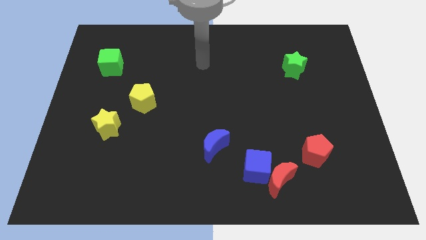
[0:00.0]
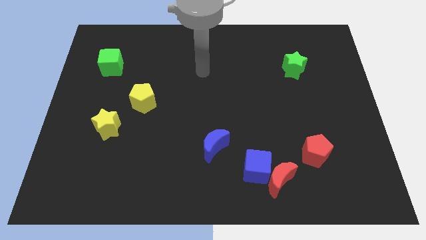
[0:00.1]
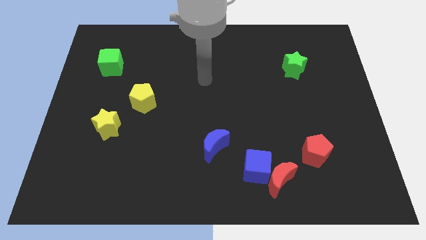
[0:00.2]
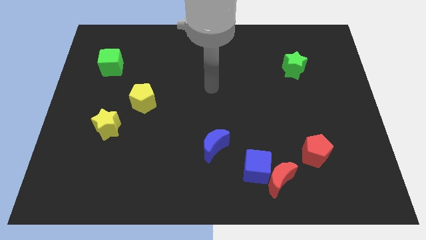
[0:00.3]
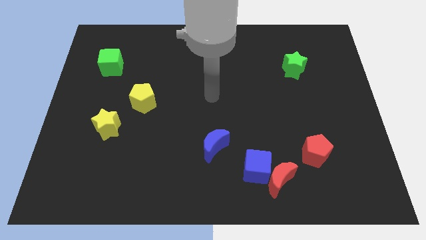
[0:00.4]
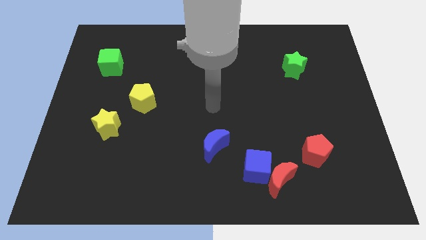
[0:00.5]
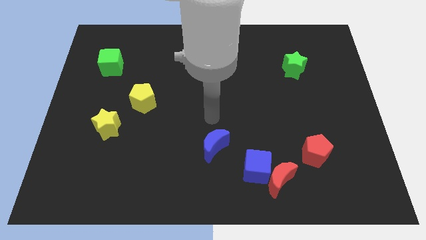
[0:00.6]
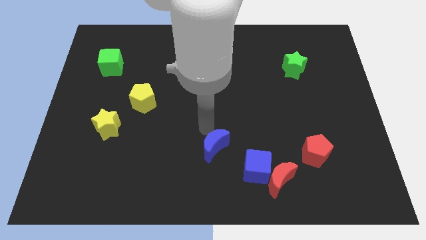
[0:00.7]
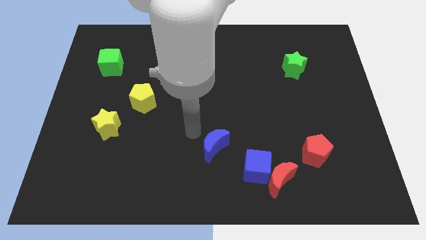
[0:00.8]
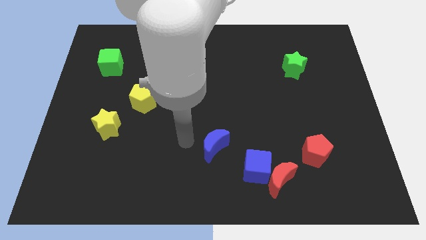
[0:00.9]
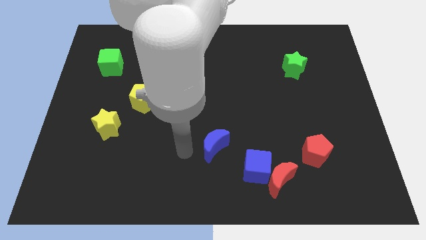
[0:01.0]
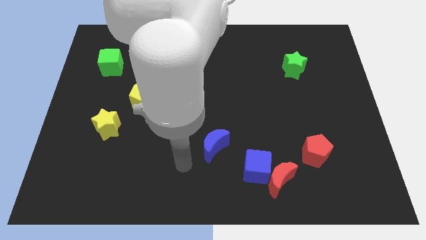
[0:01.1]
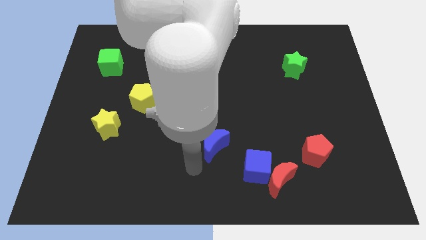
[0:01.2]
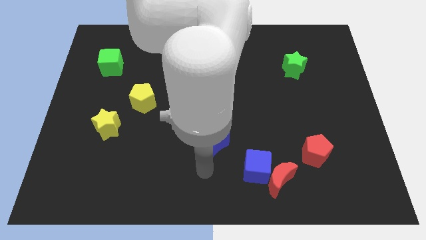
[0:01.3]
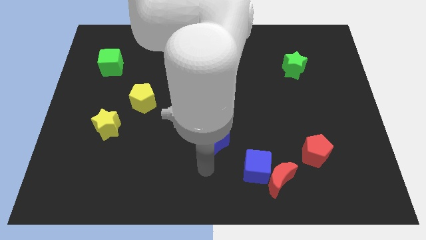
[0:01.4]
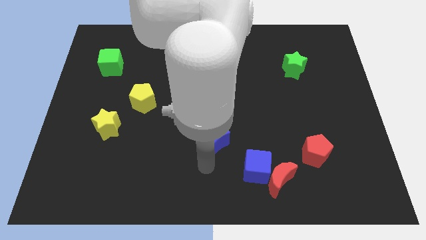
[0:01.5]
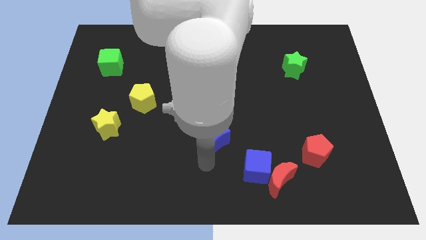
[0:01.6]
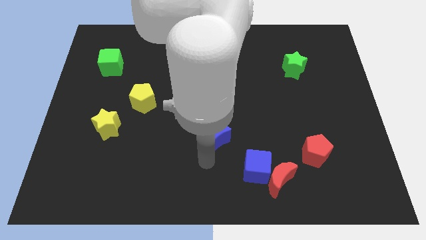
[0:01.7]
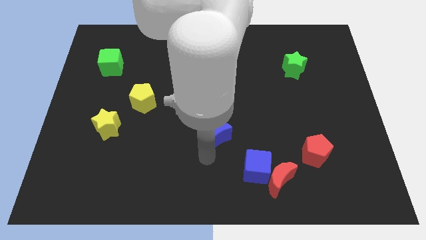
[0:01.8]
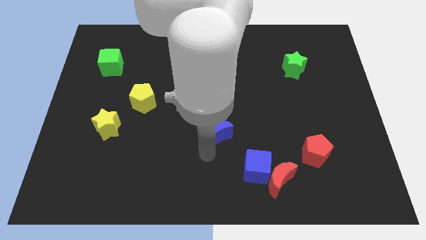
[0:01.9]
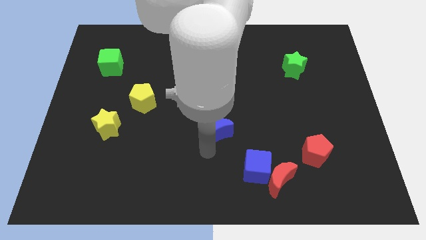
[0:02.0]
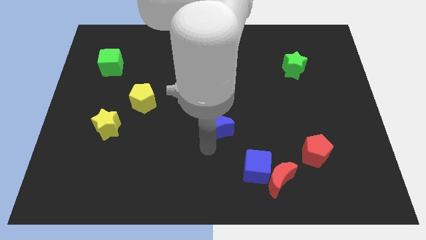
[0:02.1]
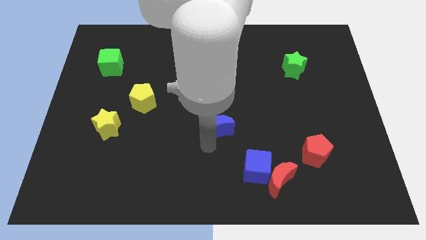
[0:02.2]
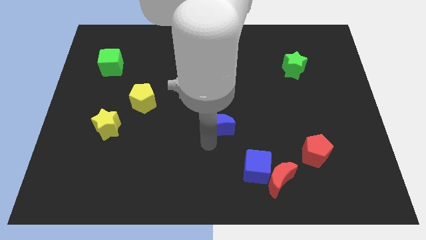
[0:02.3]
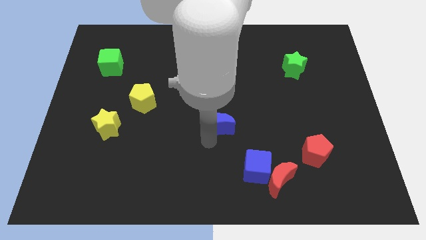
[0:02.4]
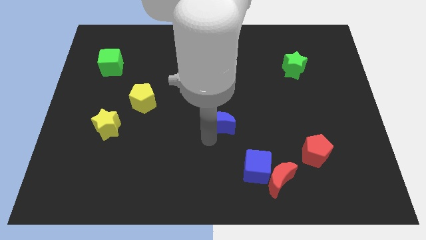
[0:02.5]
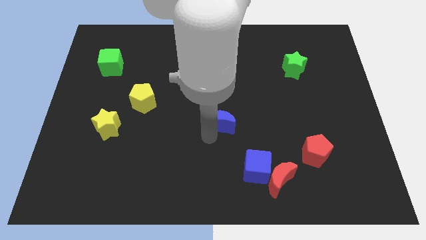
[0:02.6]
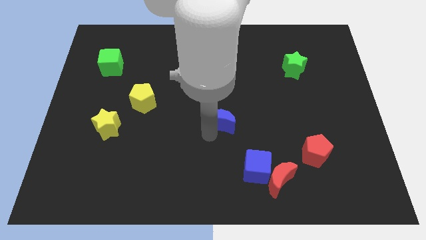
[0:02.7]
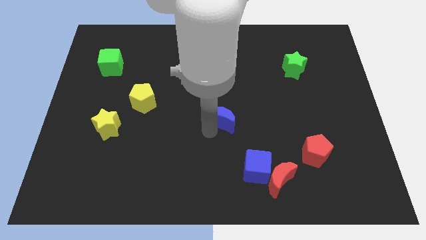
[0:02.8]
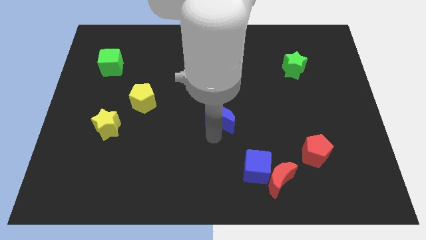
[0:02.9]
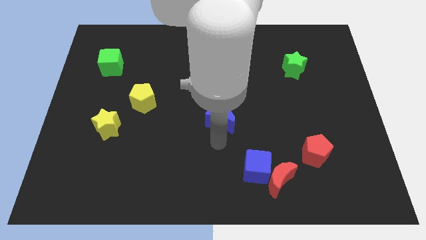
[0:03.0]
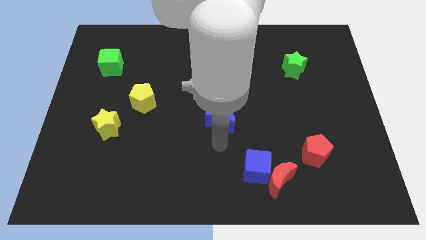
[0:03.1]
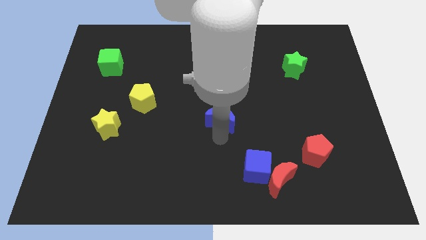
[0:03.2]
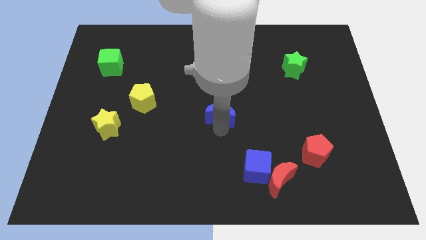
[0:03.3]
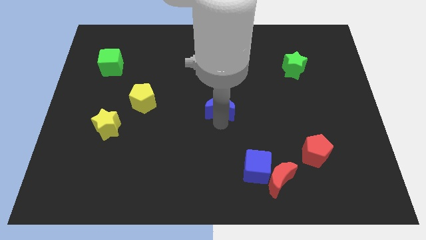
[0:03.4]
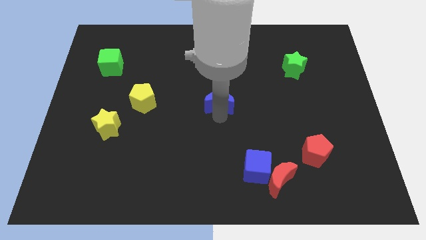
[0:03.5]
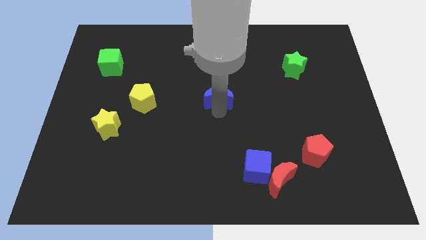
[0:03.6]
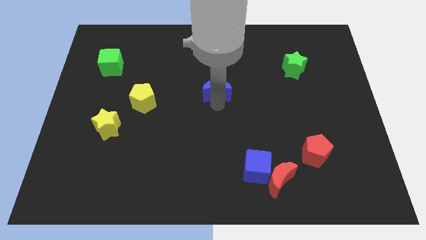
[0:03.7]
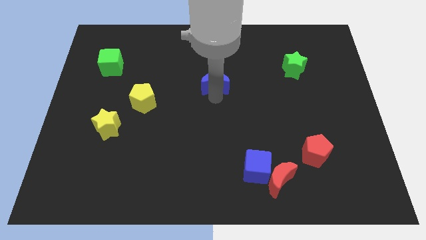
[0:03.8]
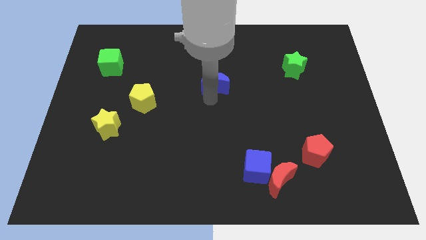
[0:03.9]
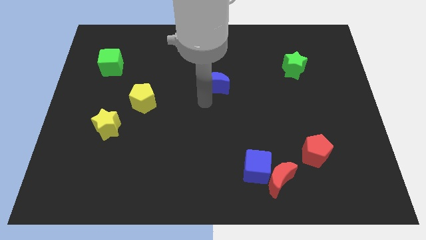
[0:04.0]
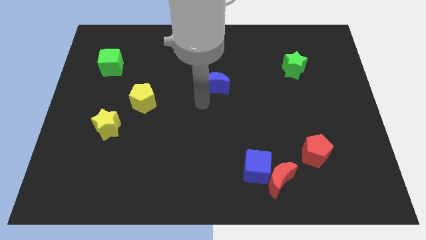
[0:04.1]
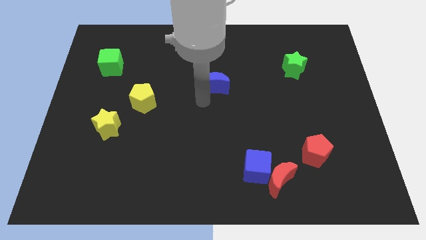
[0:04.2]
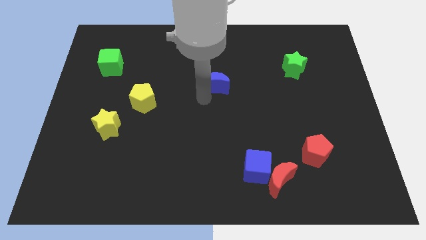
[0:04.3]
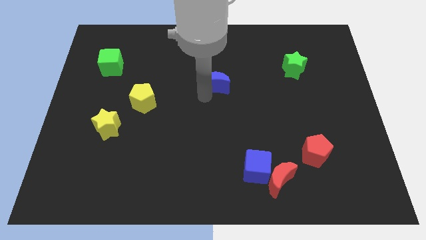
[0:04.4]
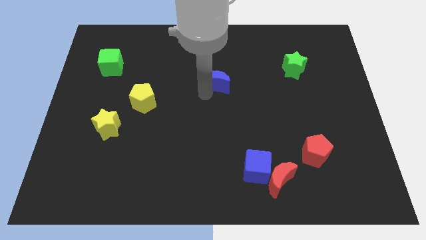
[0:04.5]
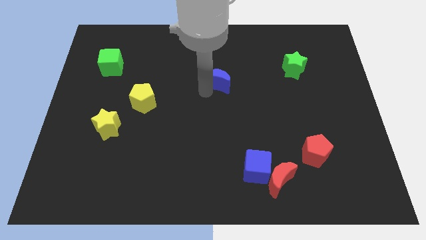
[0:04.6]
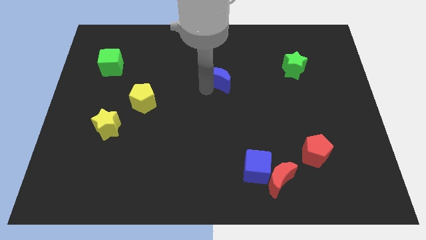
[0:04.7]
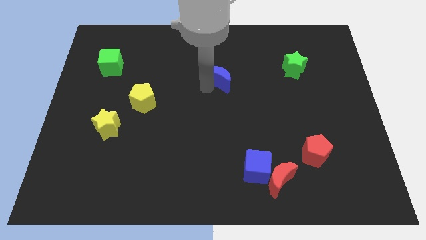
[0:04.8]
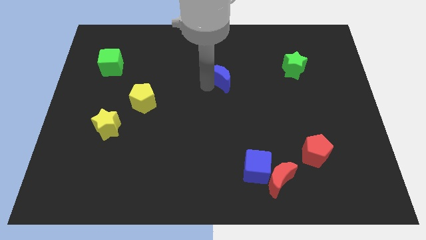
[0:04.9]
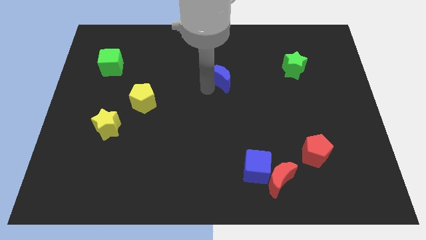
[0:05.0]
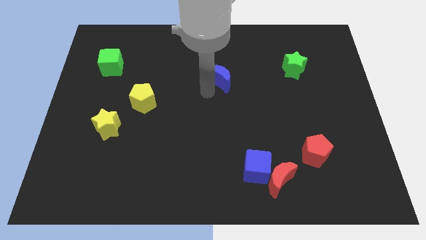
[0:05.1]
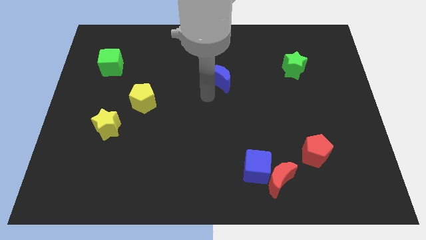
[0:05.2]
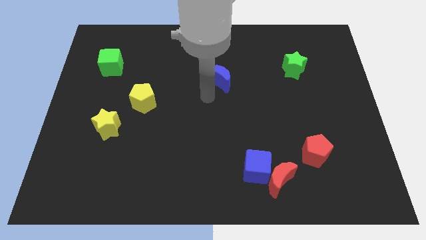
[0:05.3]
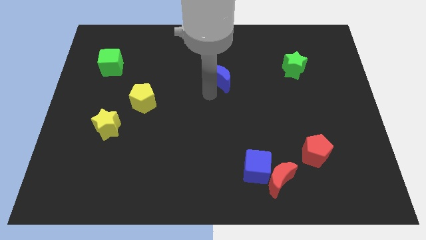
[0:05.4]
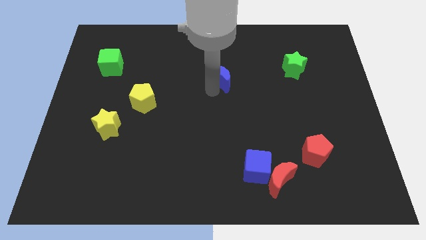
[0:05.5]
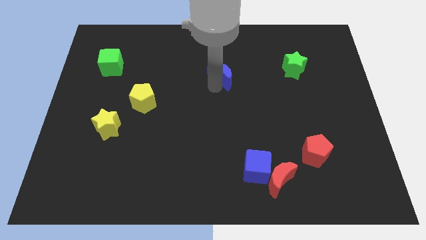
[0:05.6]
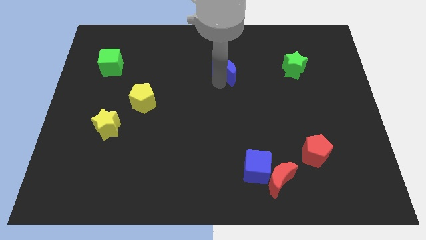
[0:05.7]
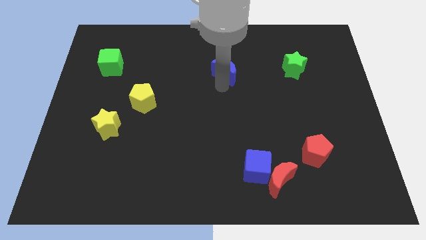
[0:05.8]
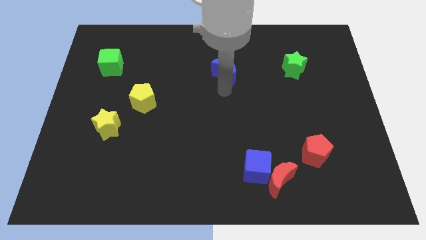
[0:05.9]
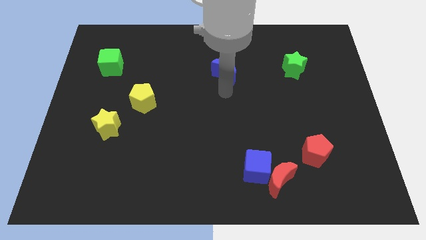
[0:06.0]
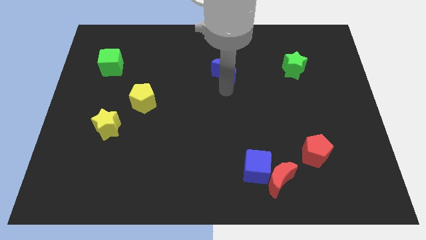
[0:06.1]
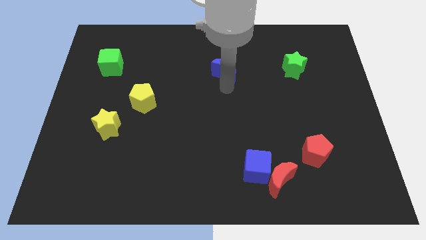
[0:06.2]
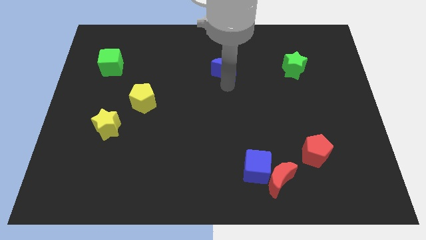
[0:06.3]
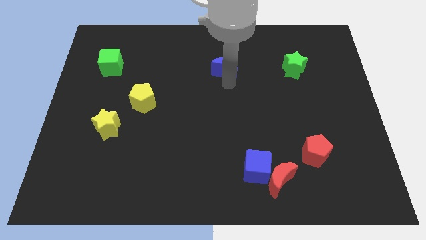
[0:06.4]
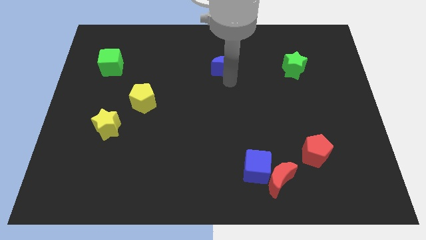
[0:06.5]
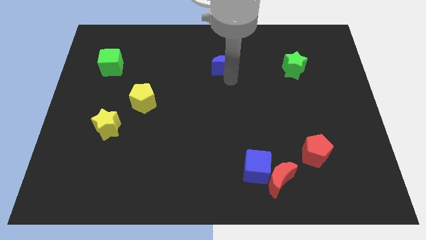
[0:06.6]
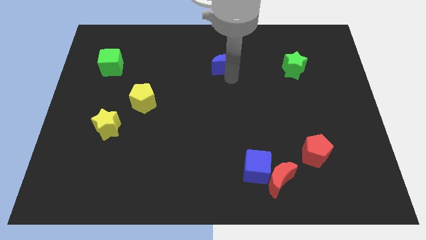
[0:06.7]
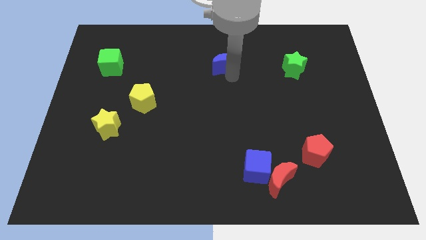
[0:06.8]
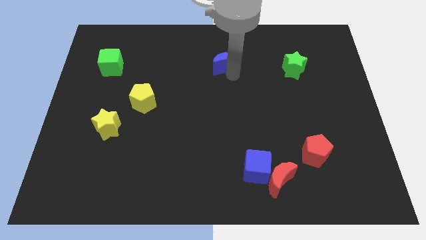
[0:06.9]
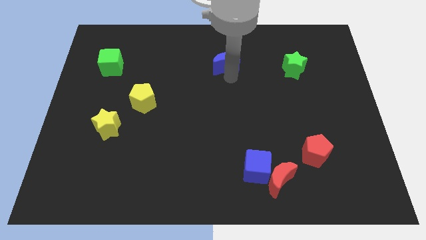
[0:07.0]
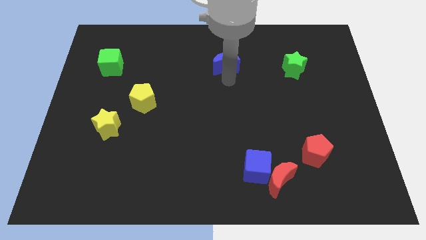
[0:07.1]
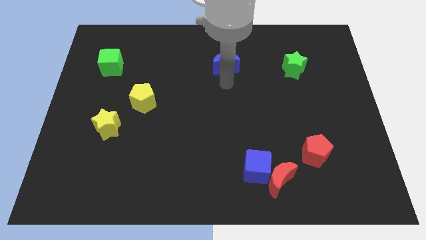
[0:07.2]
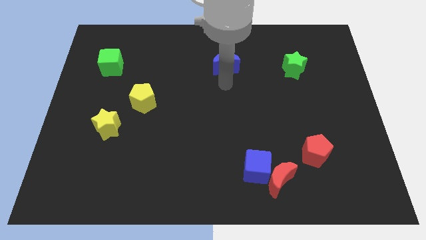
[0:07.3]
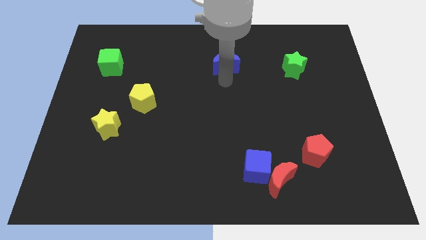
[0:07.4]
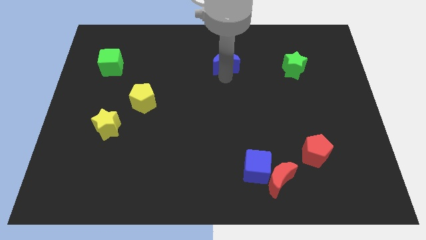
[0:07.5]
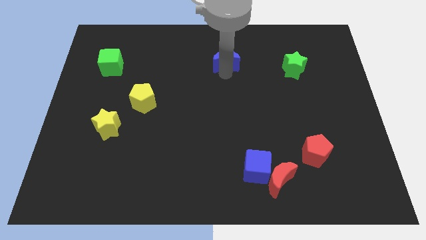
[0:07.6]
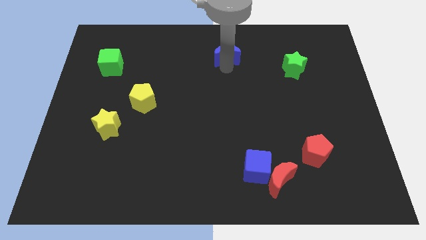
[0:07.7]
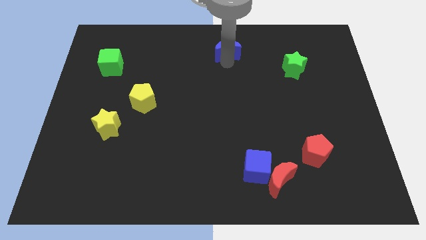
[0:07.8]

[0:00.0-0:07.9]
put the blue moon to the top
